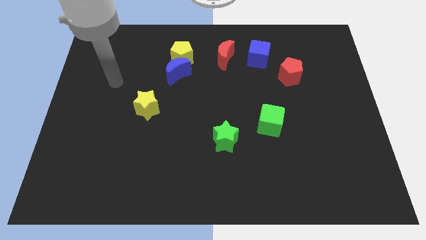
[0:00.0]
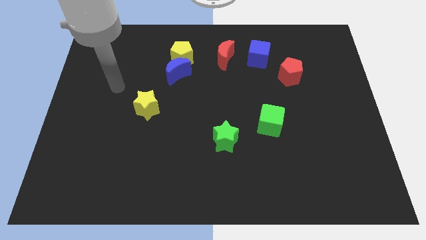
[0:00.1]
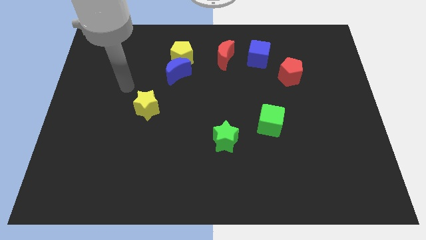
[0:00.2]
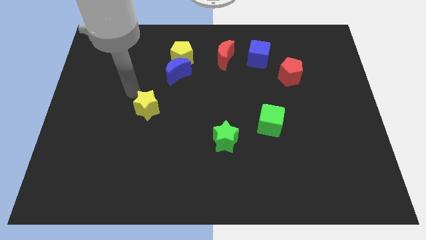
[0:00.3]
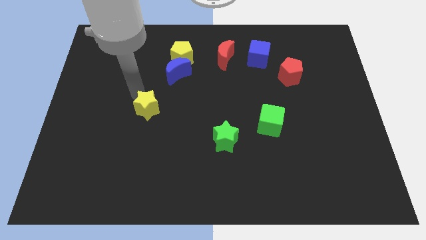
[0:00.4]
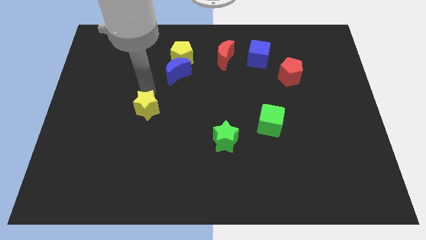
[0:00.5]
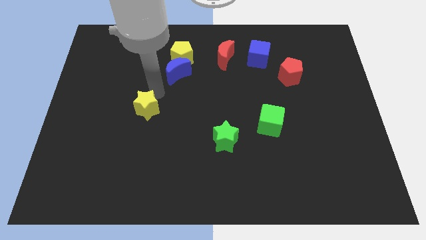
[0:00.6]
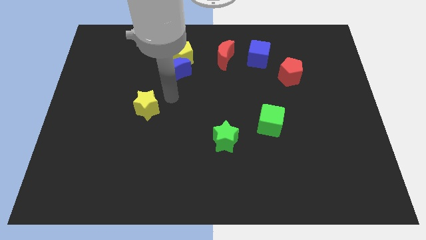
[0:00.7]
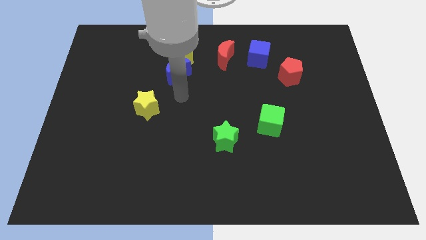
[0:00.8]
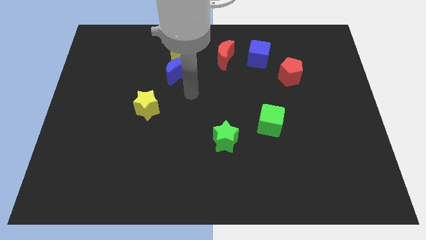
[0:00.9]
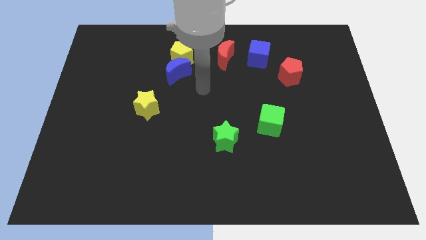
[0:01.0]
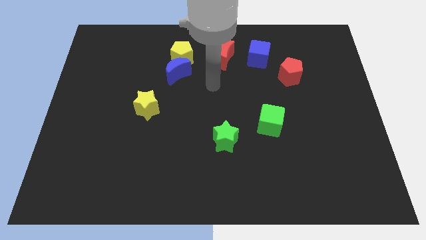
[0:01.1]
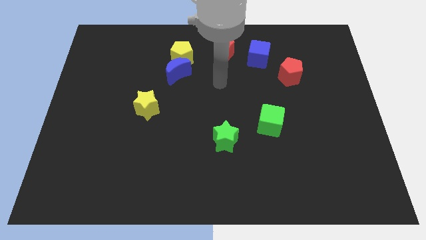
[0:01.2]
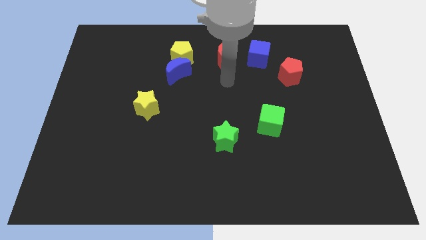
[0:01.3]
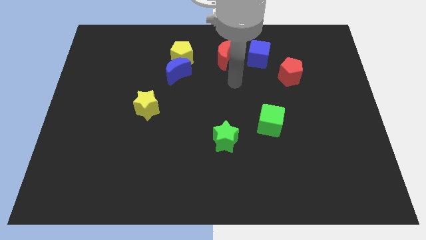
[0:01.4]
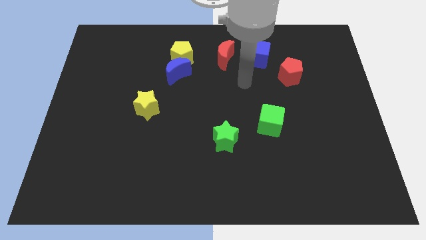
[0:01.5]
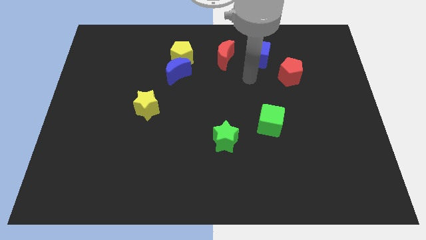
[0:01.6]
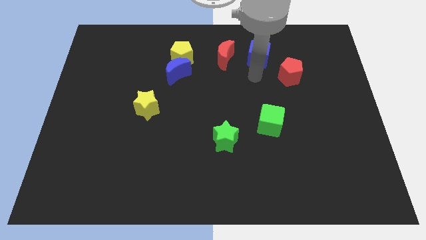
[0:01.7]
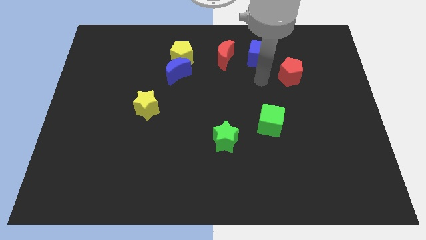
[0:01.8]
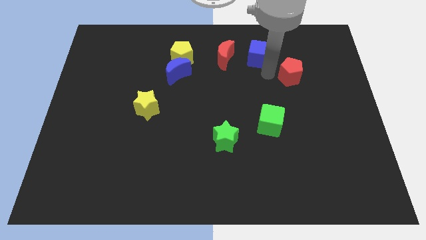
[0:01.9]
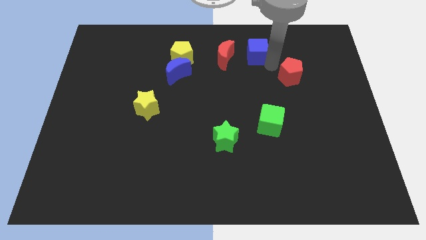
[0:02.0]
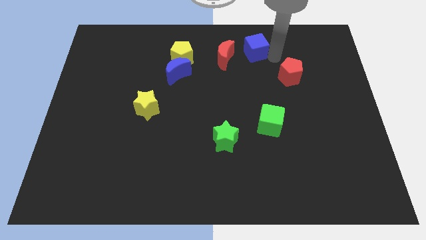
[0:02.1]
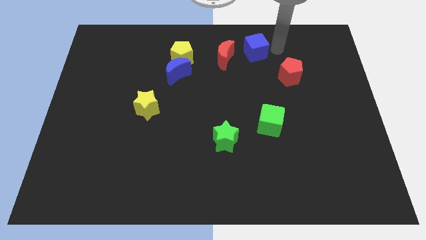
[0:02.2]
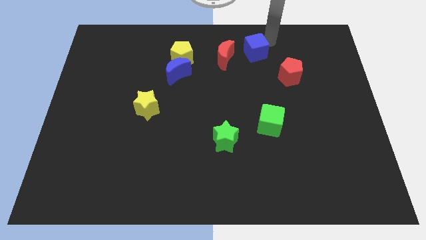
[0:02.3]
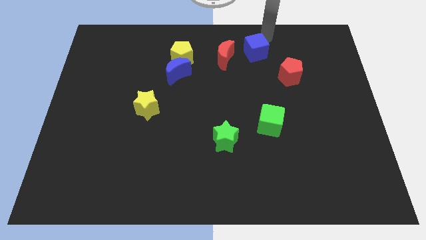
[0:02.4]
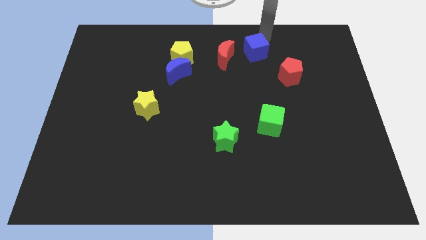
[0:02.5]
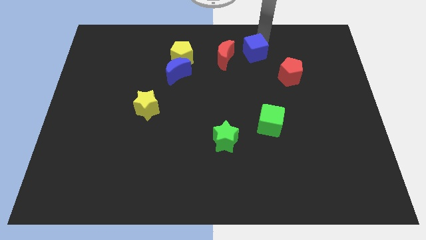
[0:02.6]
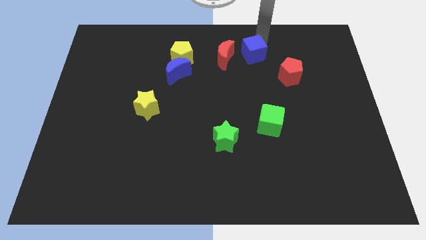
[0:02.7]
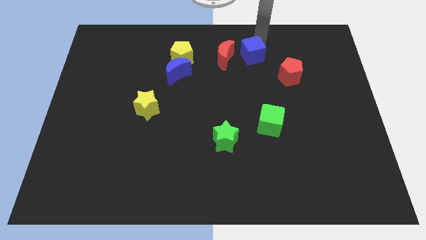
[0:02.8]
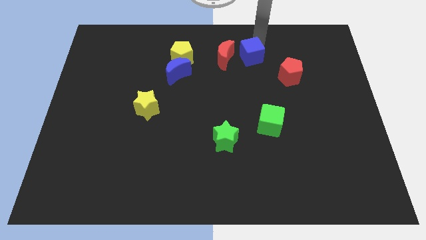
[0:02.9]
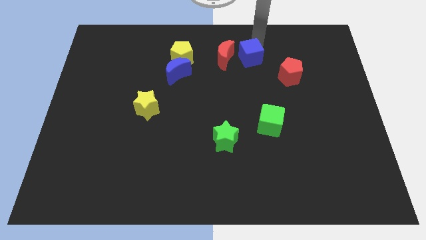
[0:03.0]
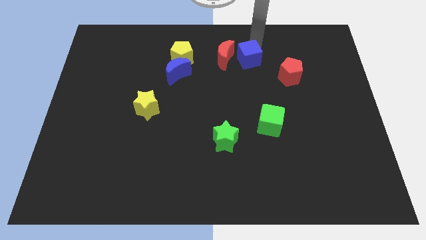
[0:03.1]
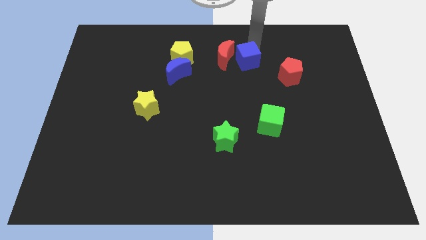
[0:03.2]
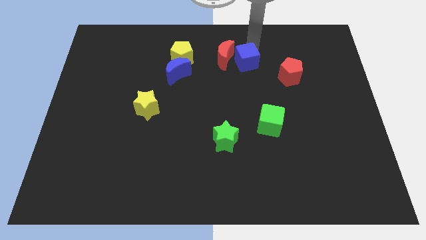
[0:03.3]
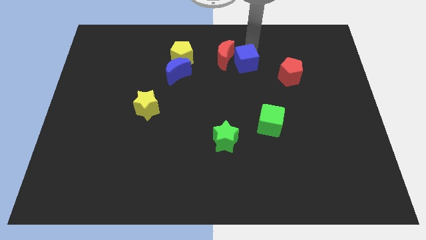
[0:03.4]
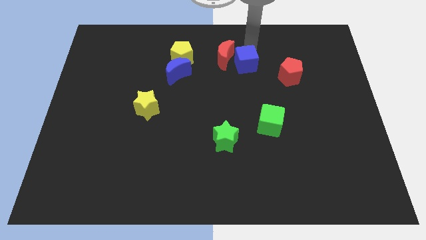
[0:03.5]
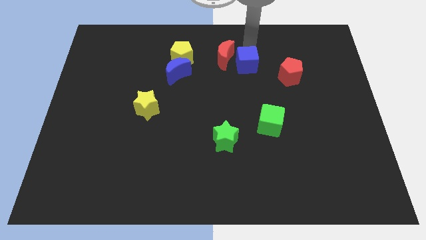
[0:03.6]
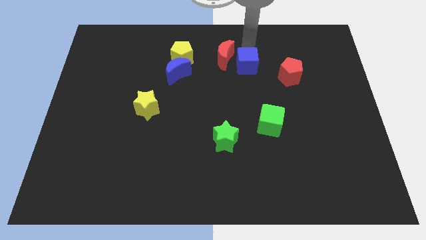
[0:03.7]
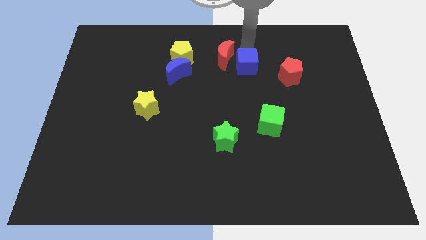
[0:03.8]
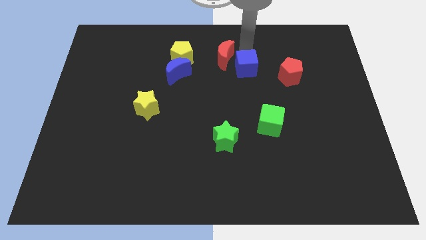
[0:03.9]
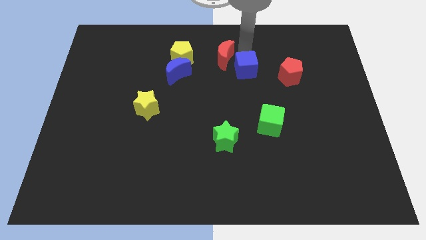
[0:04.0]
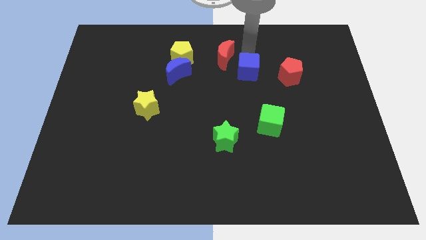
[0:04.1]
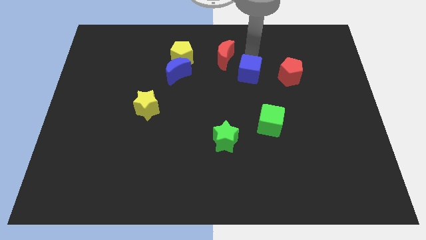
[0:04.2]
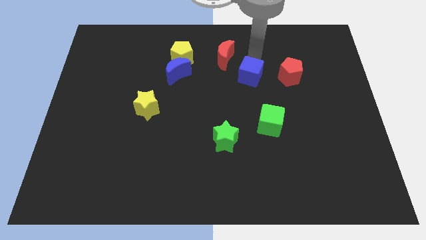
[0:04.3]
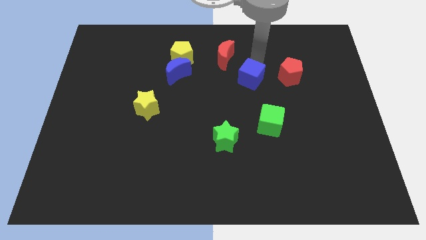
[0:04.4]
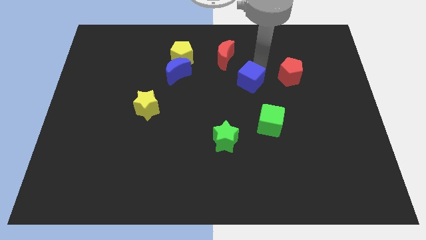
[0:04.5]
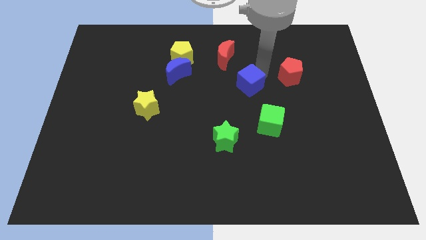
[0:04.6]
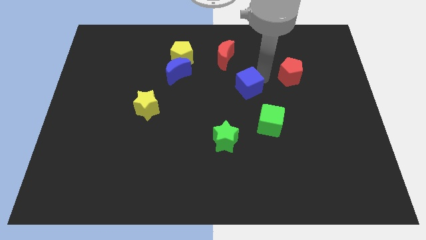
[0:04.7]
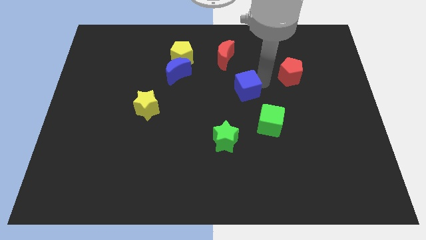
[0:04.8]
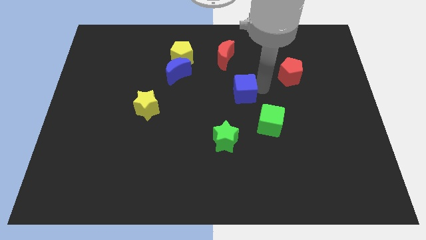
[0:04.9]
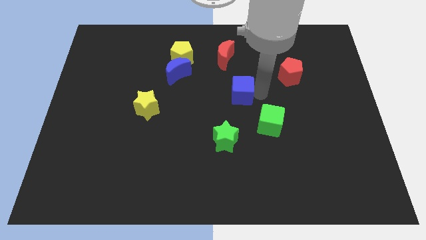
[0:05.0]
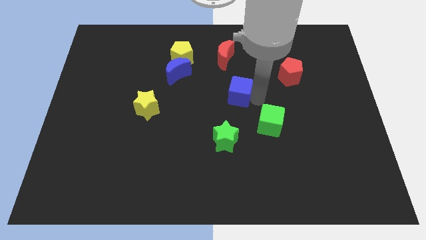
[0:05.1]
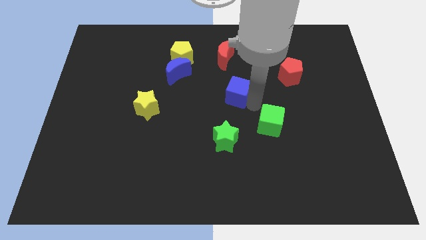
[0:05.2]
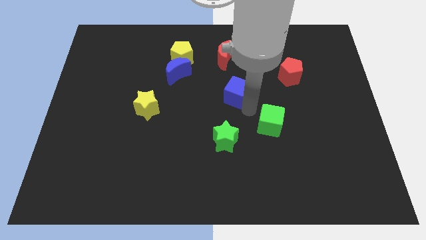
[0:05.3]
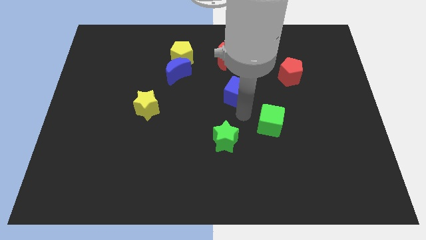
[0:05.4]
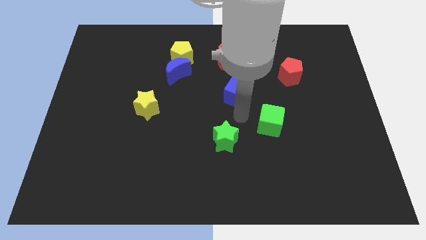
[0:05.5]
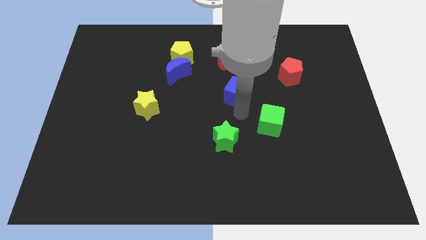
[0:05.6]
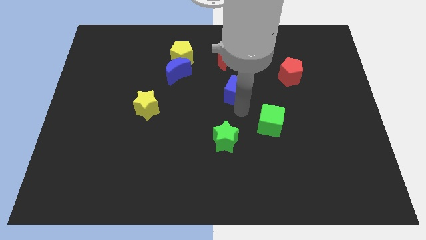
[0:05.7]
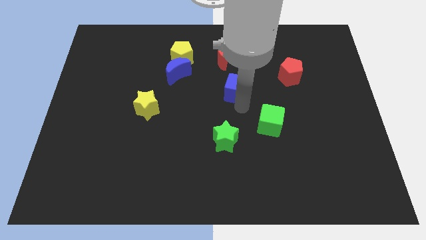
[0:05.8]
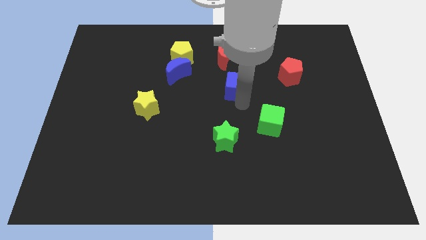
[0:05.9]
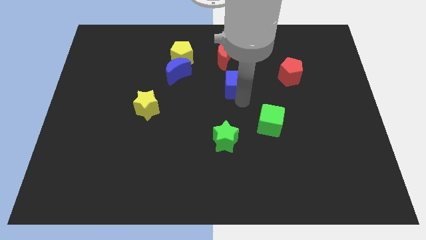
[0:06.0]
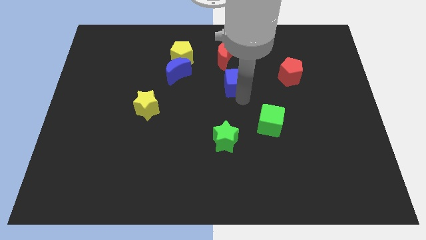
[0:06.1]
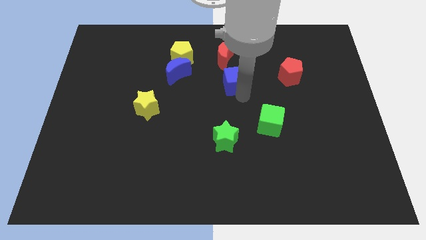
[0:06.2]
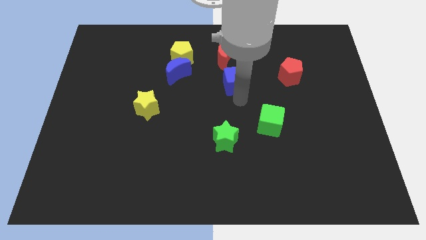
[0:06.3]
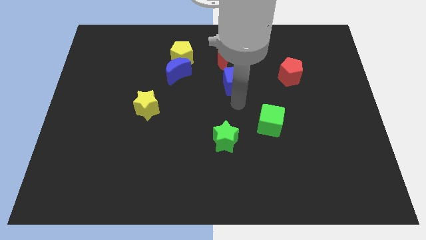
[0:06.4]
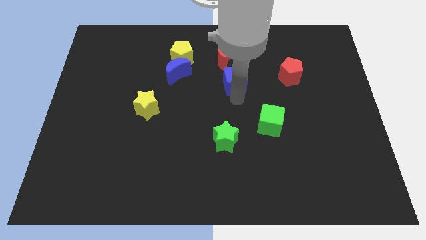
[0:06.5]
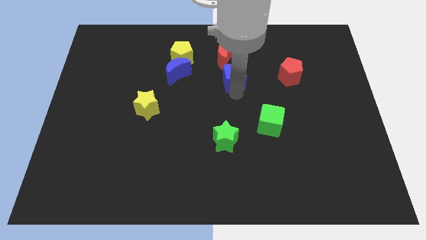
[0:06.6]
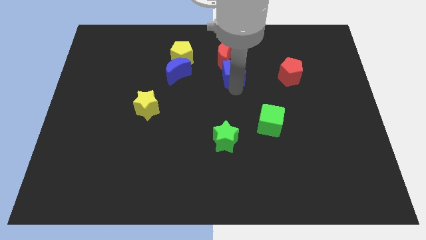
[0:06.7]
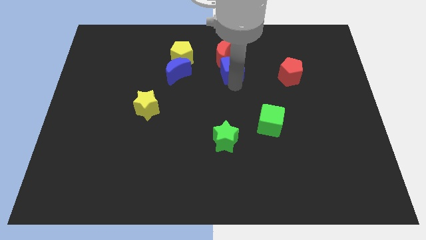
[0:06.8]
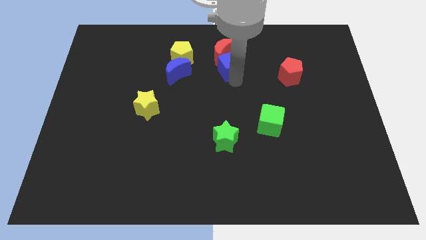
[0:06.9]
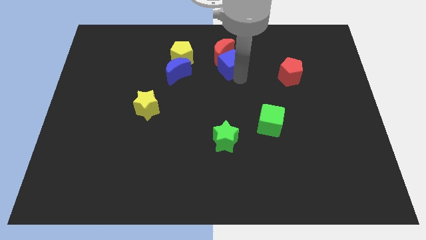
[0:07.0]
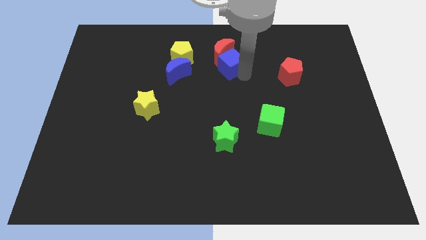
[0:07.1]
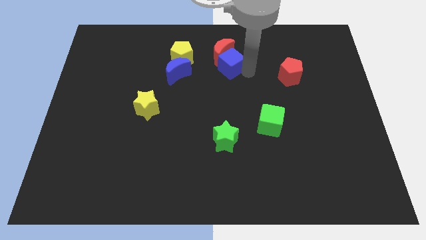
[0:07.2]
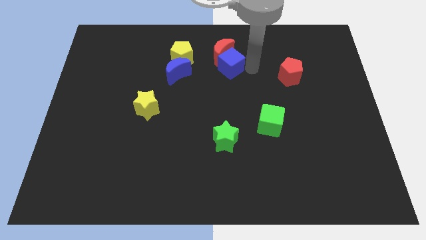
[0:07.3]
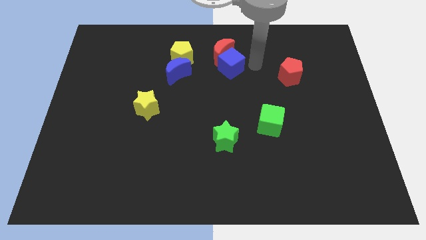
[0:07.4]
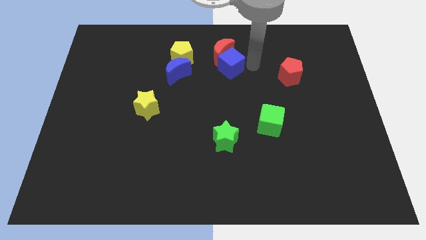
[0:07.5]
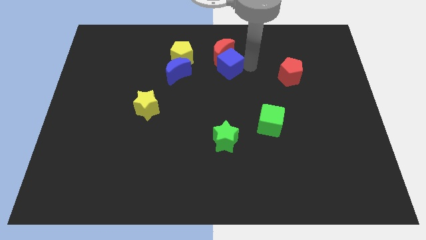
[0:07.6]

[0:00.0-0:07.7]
put the blue cube to the bottom left of the red moon
